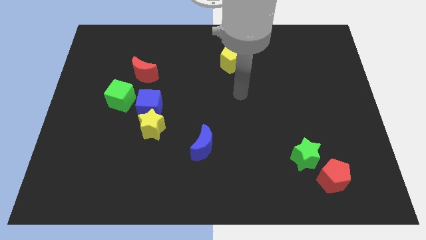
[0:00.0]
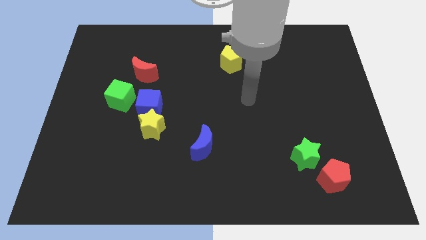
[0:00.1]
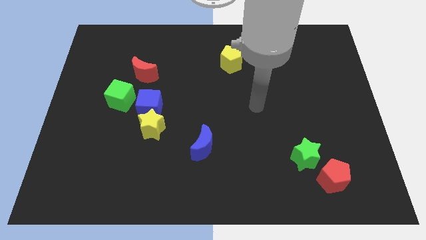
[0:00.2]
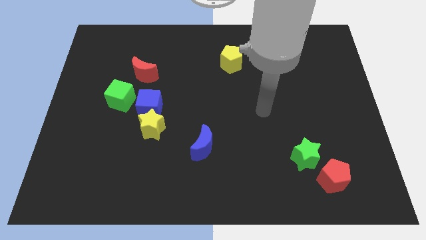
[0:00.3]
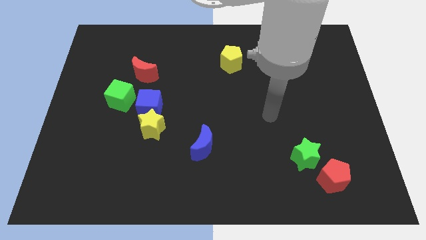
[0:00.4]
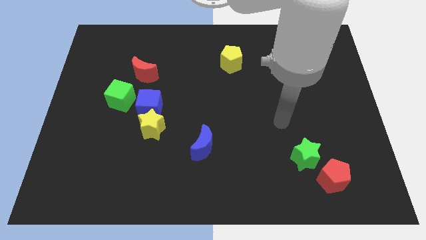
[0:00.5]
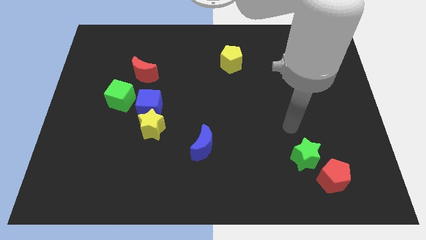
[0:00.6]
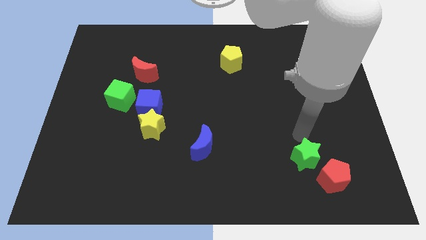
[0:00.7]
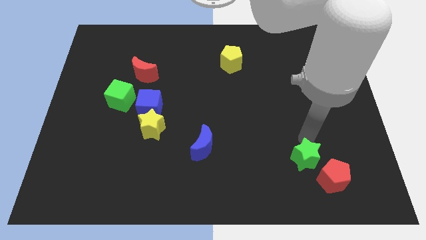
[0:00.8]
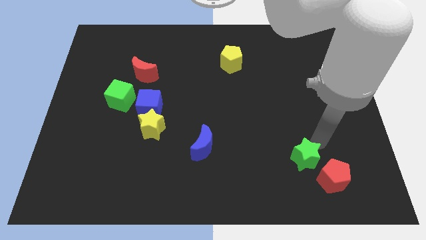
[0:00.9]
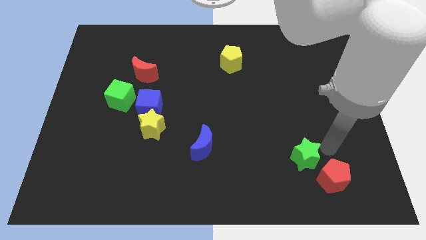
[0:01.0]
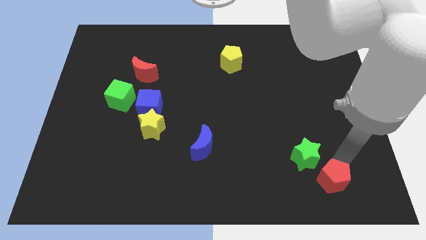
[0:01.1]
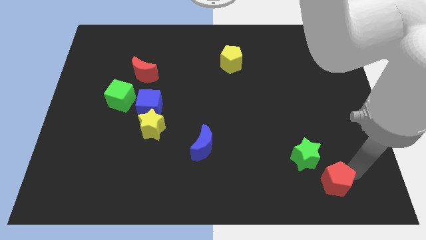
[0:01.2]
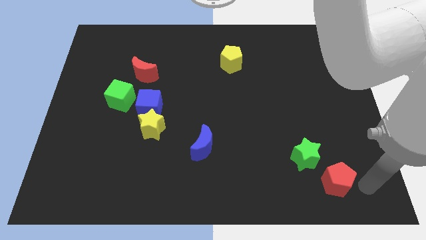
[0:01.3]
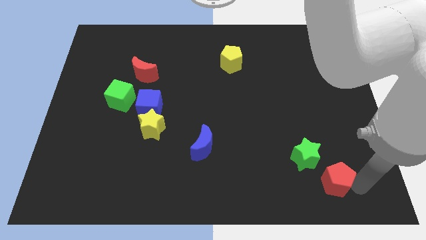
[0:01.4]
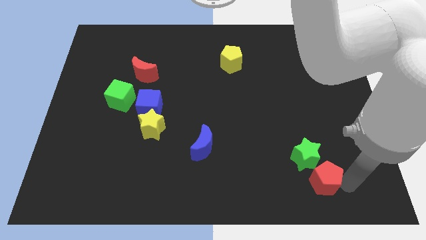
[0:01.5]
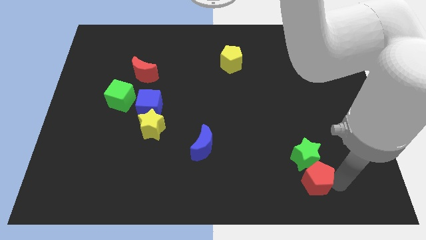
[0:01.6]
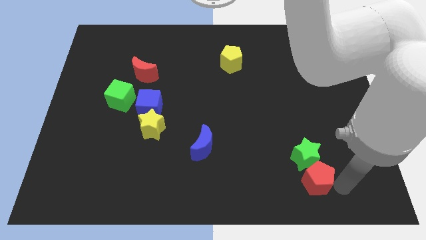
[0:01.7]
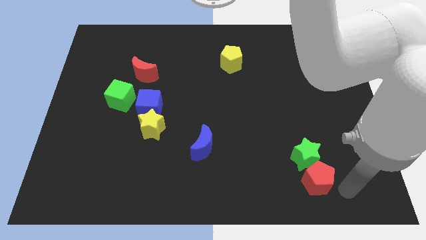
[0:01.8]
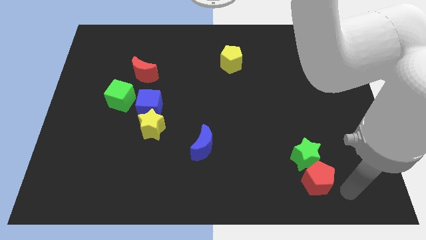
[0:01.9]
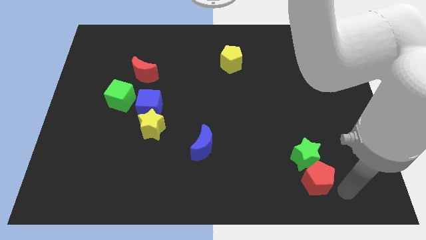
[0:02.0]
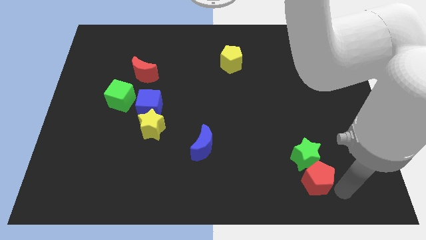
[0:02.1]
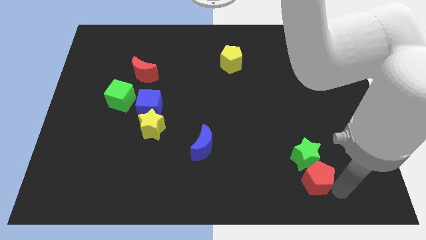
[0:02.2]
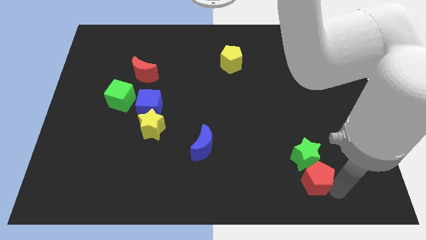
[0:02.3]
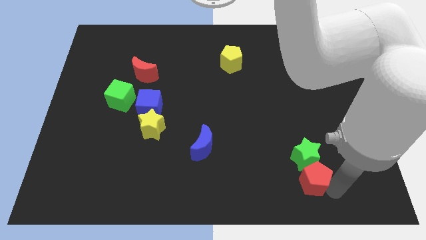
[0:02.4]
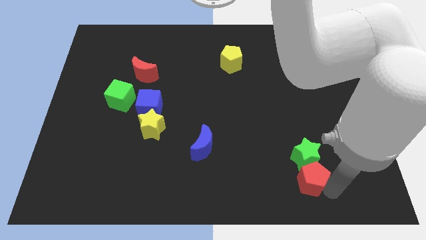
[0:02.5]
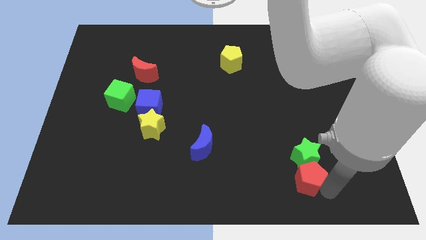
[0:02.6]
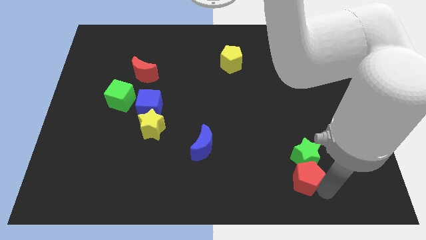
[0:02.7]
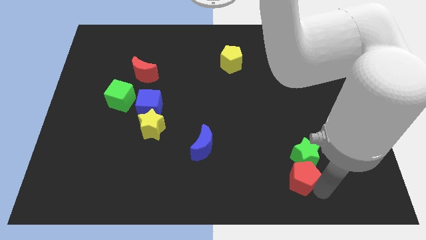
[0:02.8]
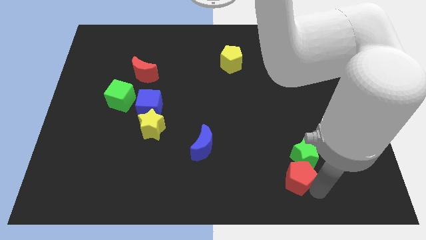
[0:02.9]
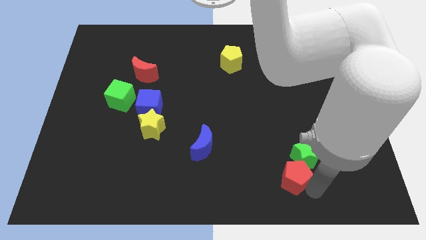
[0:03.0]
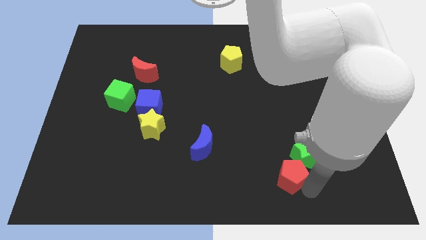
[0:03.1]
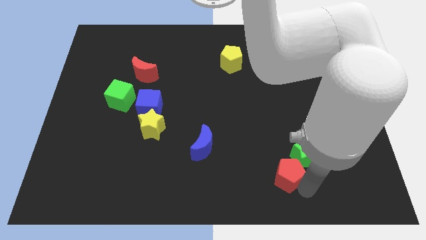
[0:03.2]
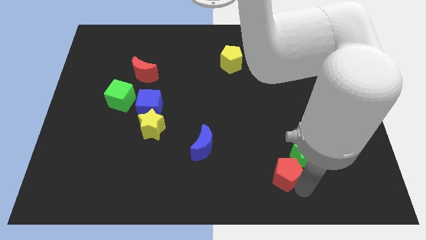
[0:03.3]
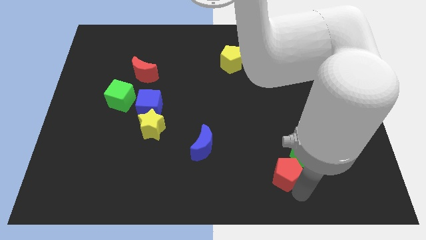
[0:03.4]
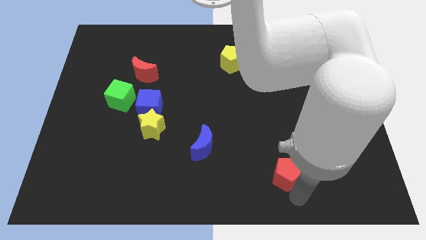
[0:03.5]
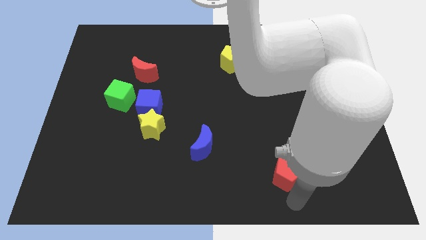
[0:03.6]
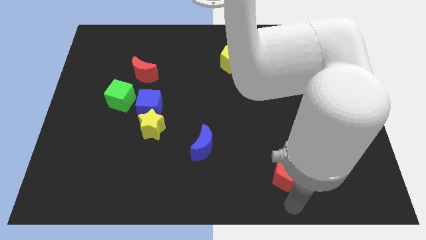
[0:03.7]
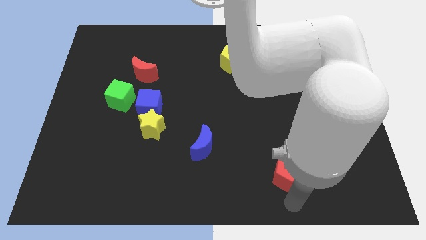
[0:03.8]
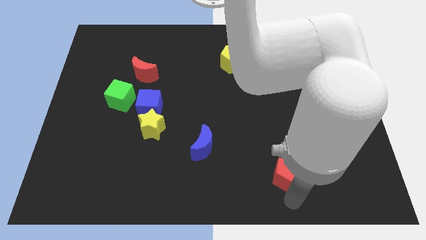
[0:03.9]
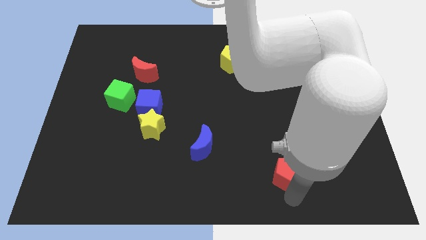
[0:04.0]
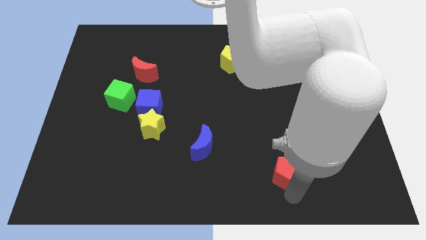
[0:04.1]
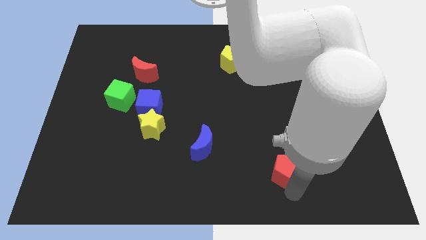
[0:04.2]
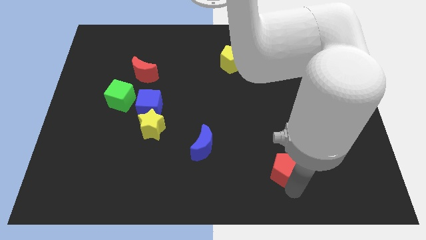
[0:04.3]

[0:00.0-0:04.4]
slightly move the red pentagon upwards and left

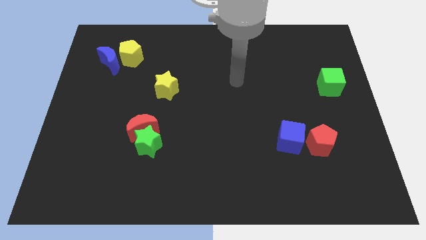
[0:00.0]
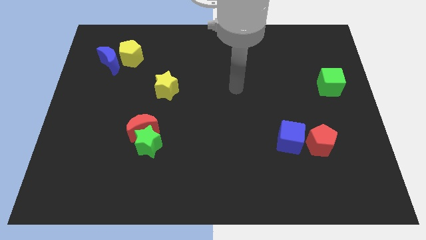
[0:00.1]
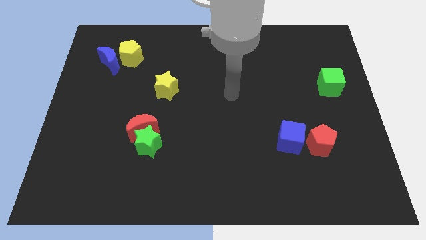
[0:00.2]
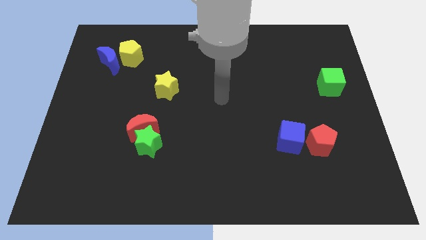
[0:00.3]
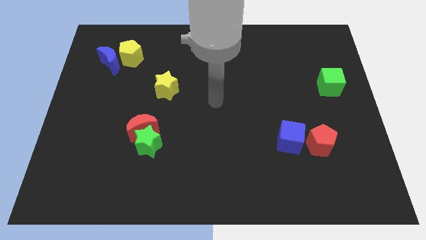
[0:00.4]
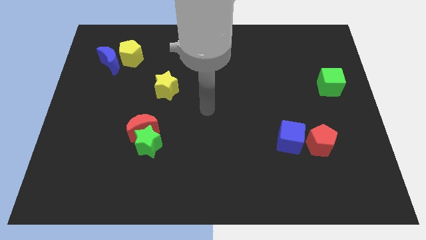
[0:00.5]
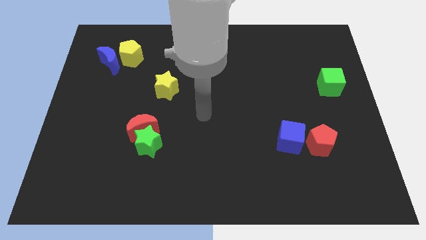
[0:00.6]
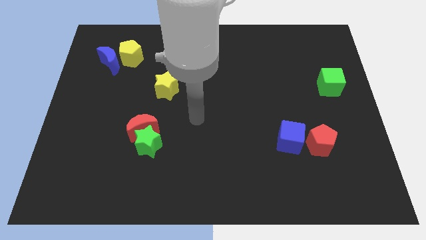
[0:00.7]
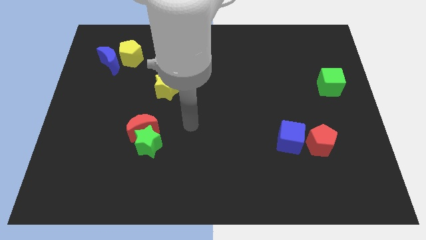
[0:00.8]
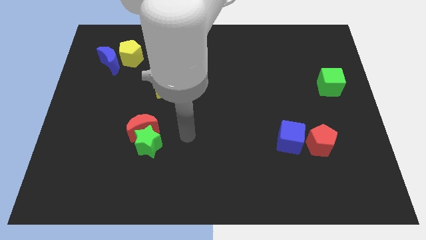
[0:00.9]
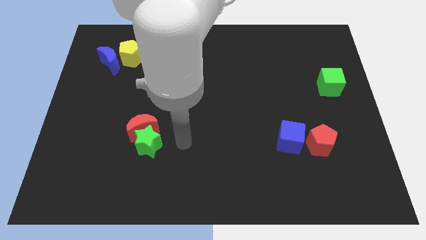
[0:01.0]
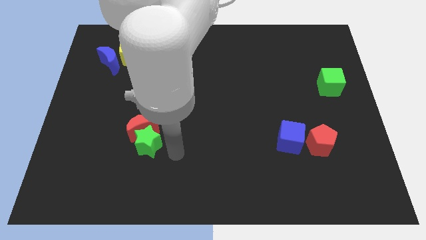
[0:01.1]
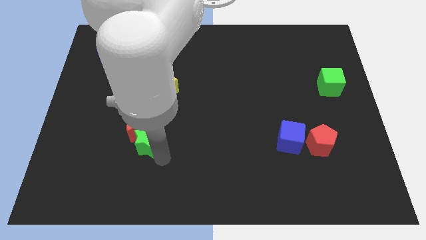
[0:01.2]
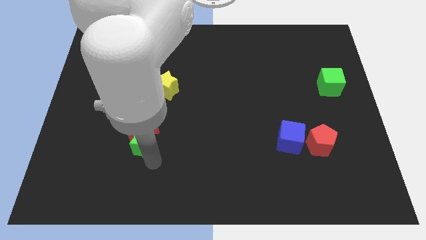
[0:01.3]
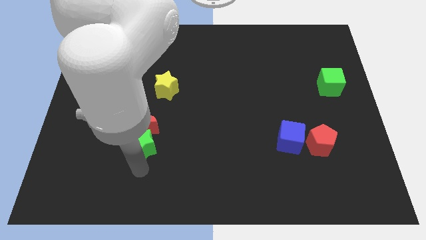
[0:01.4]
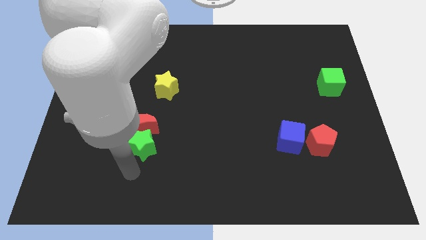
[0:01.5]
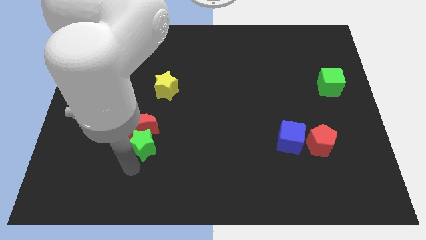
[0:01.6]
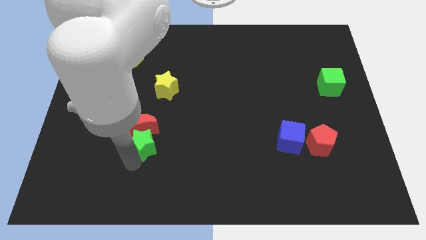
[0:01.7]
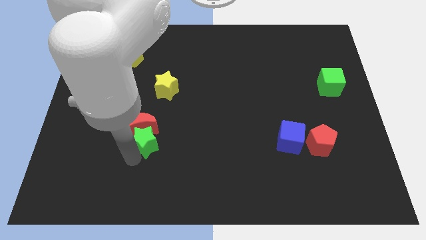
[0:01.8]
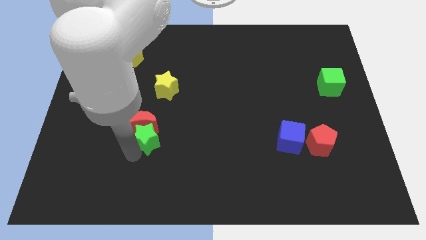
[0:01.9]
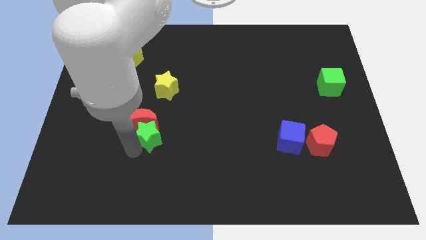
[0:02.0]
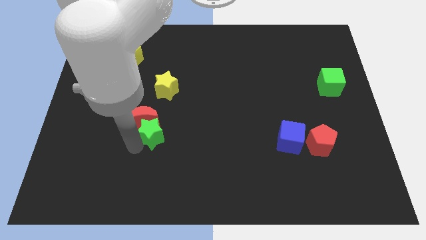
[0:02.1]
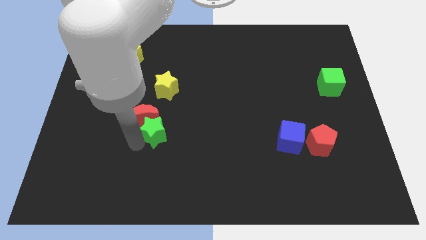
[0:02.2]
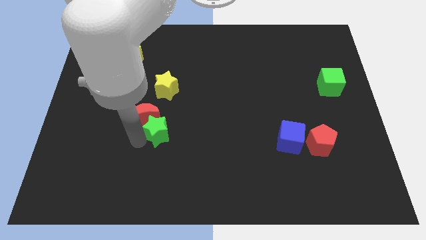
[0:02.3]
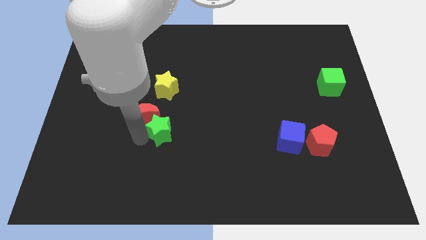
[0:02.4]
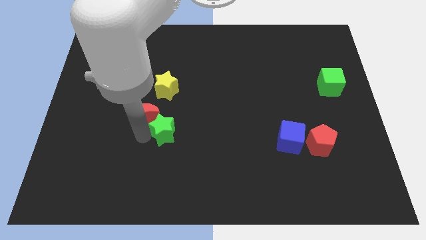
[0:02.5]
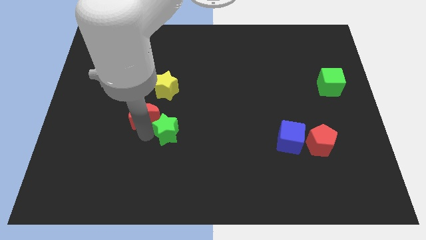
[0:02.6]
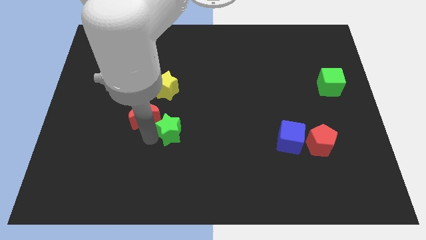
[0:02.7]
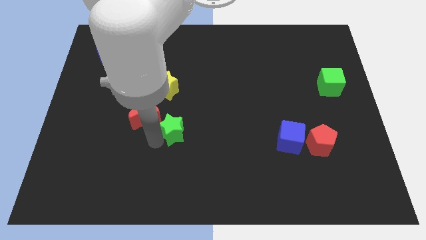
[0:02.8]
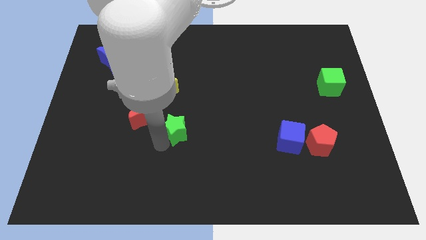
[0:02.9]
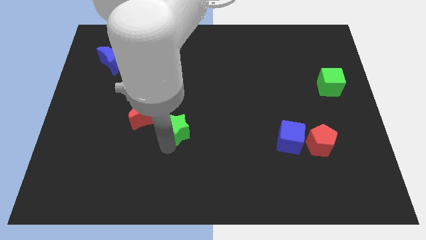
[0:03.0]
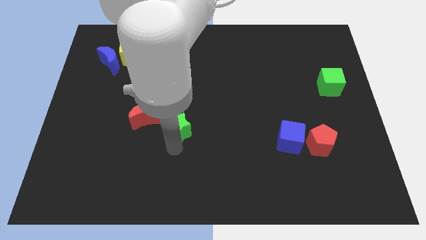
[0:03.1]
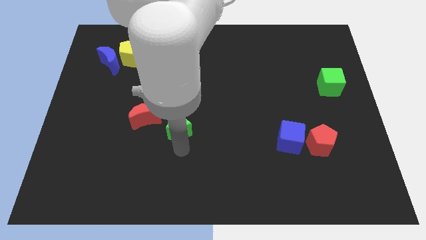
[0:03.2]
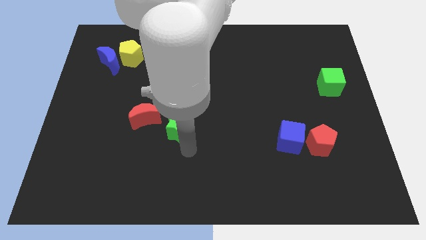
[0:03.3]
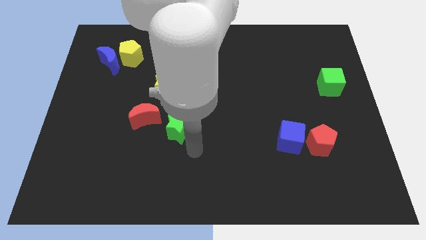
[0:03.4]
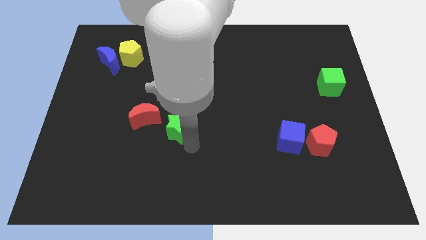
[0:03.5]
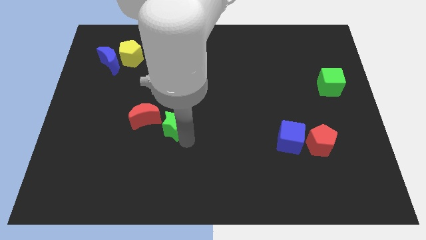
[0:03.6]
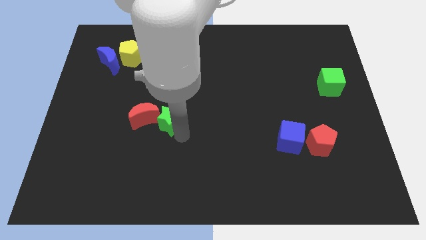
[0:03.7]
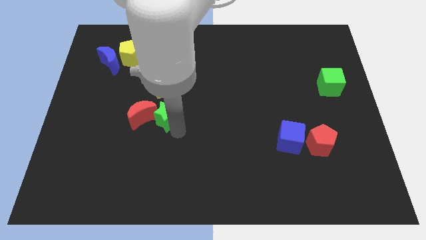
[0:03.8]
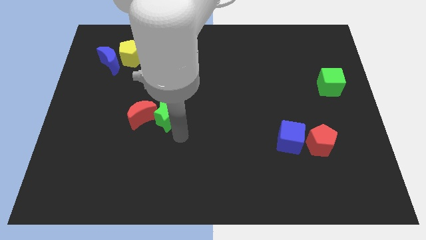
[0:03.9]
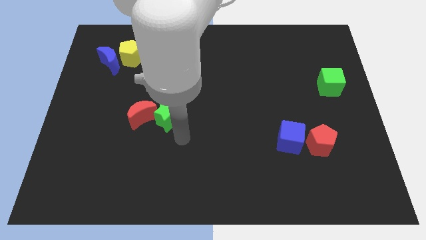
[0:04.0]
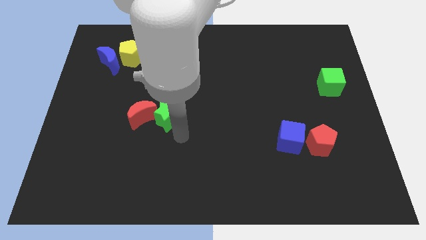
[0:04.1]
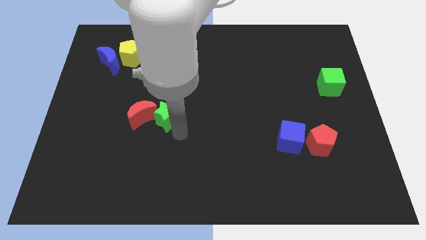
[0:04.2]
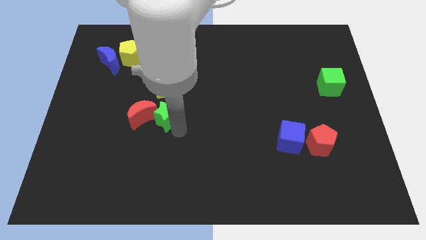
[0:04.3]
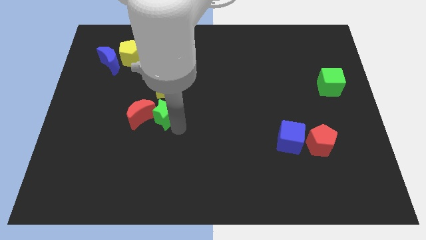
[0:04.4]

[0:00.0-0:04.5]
push the green star up a bit
